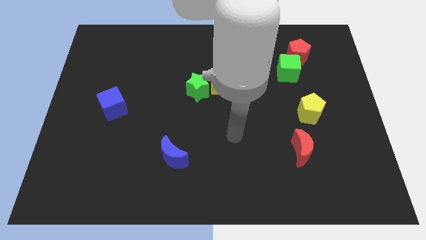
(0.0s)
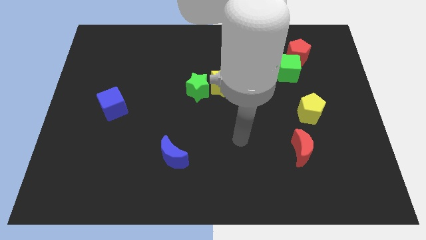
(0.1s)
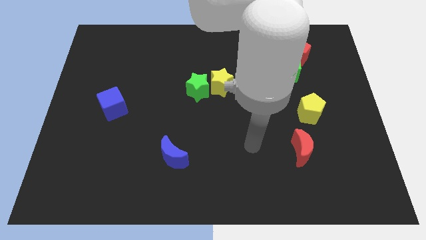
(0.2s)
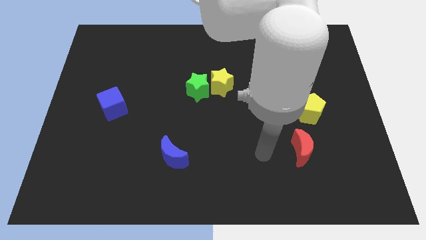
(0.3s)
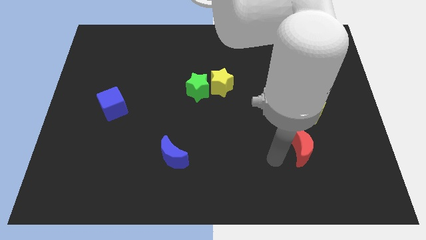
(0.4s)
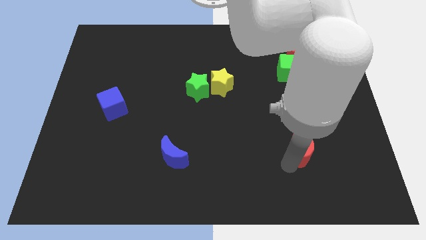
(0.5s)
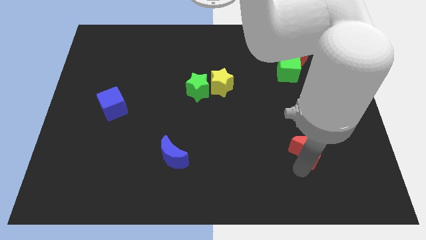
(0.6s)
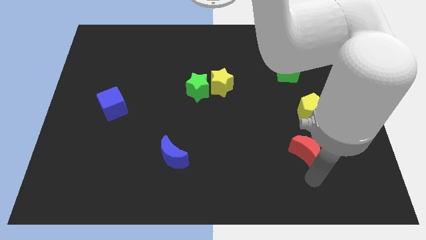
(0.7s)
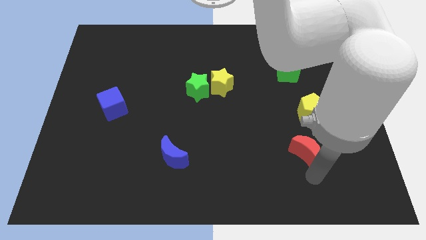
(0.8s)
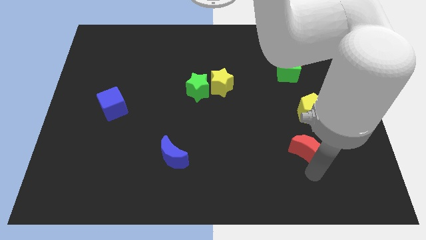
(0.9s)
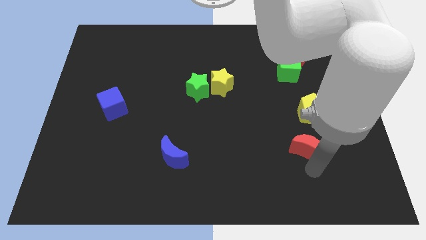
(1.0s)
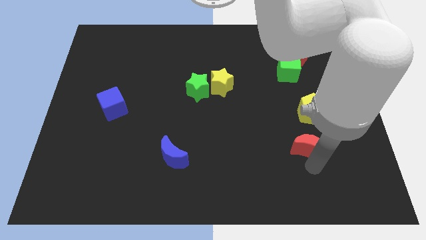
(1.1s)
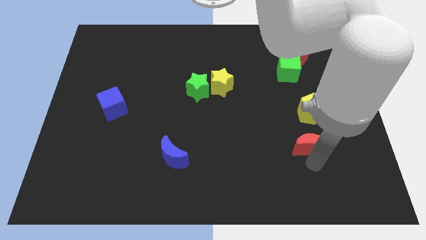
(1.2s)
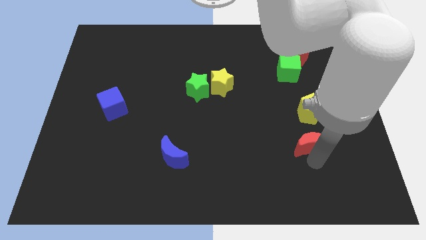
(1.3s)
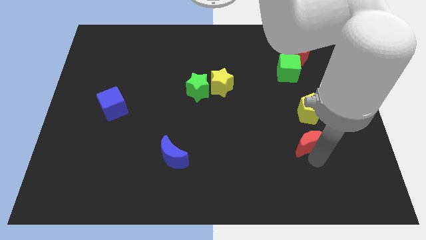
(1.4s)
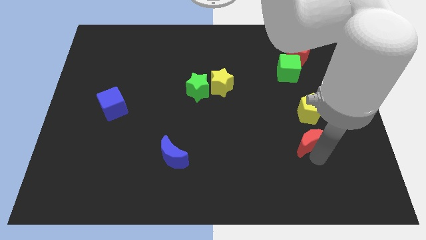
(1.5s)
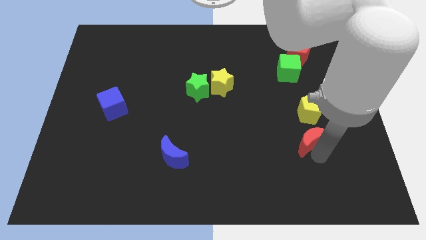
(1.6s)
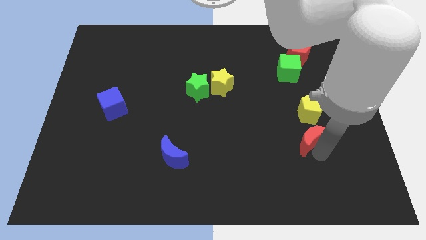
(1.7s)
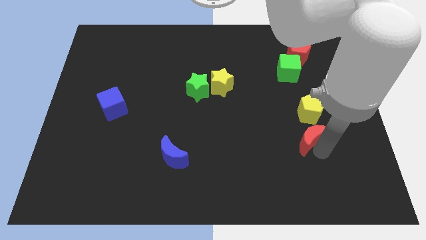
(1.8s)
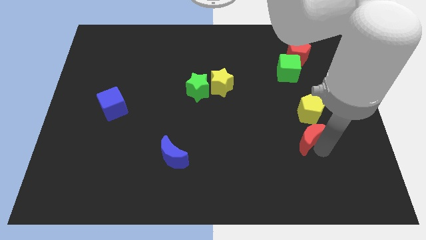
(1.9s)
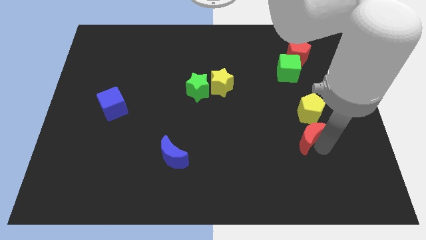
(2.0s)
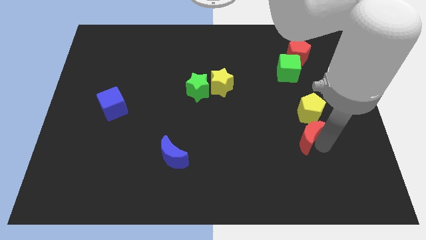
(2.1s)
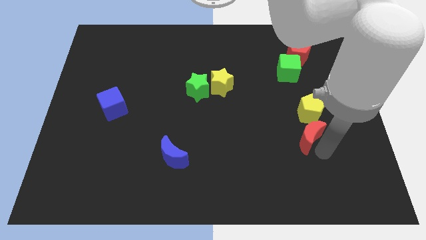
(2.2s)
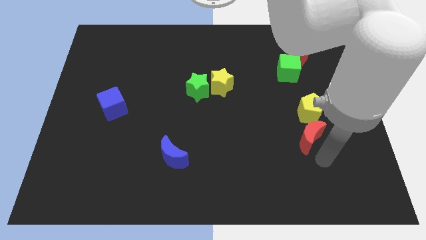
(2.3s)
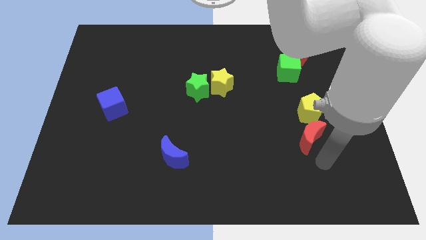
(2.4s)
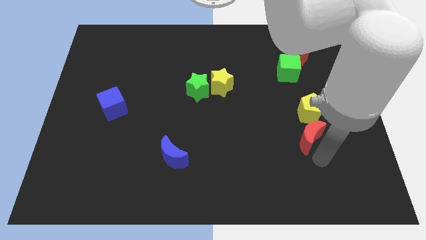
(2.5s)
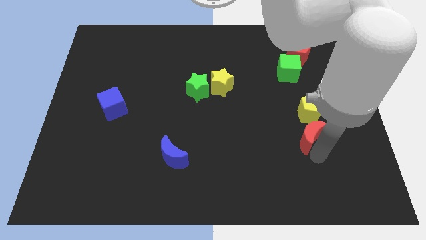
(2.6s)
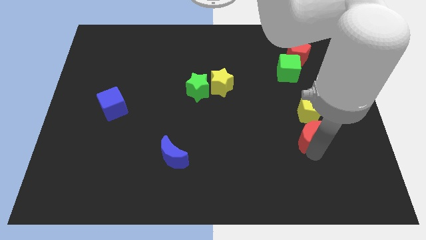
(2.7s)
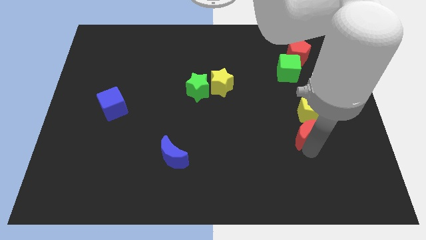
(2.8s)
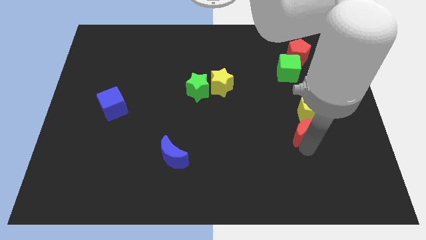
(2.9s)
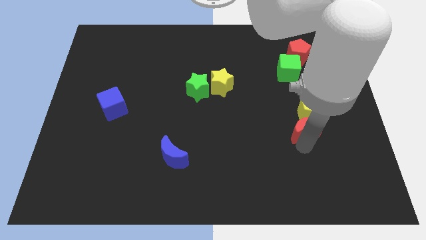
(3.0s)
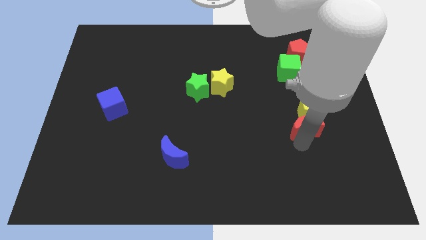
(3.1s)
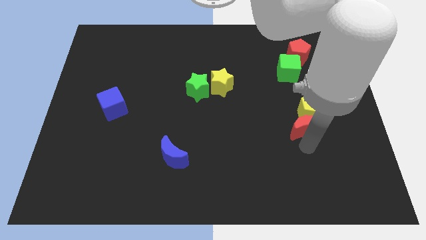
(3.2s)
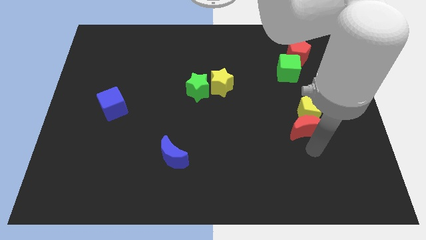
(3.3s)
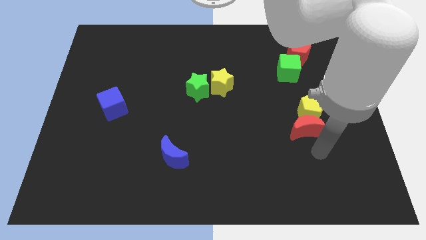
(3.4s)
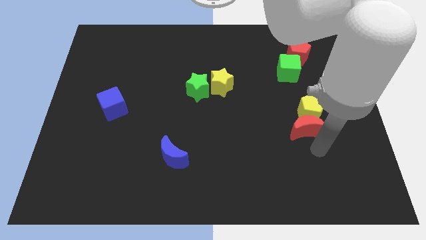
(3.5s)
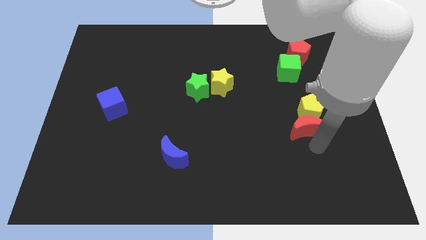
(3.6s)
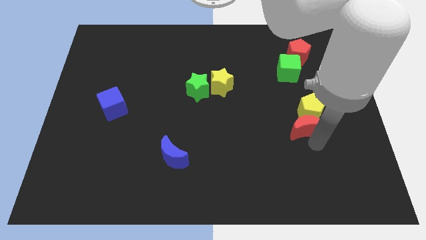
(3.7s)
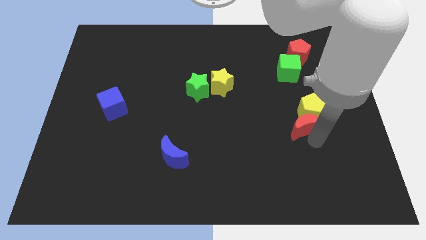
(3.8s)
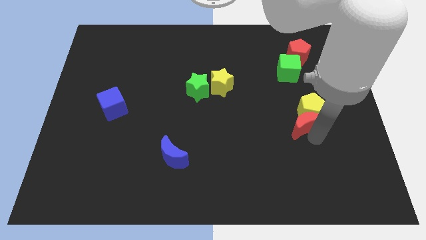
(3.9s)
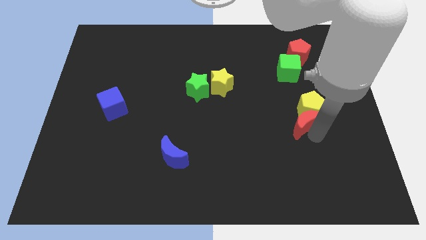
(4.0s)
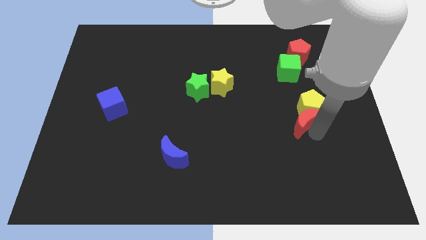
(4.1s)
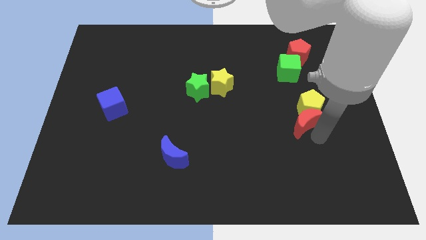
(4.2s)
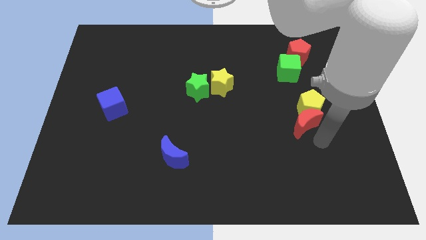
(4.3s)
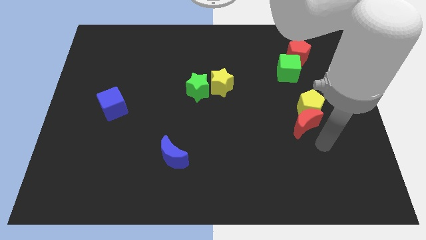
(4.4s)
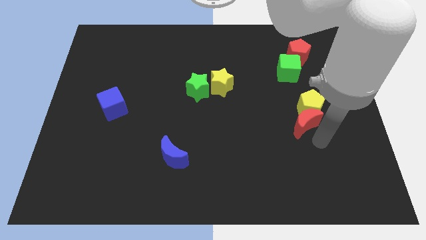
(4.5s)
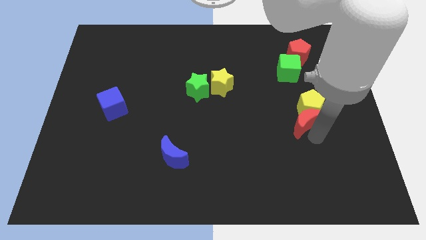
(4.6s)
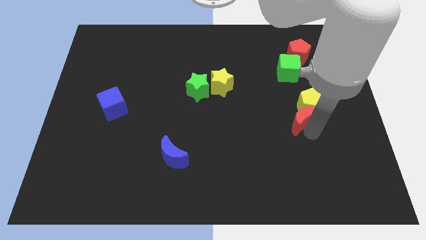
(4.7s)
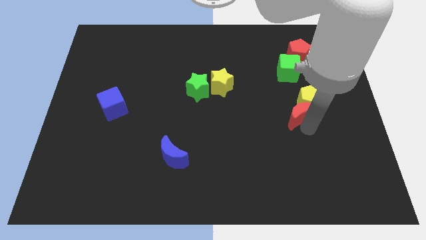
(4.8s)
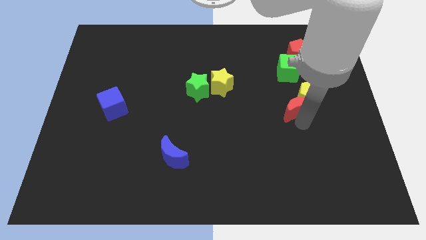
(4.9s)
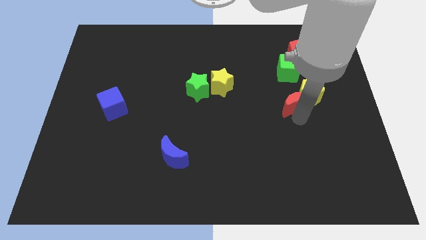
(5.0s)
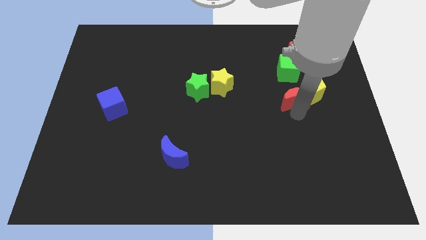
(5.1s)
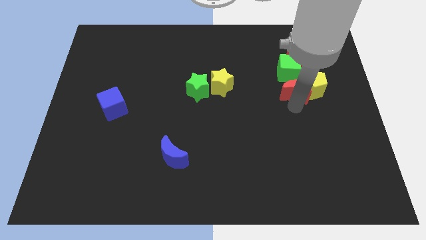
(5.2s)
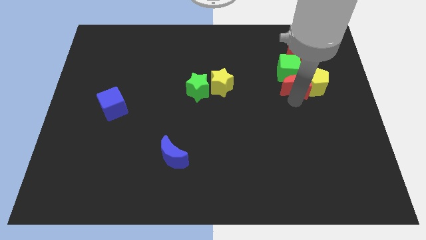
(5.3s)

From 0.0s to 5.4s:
put the red moon to the green cube

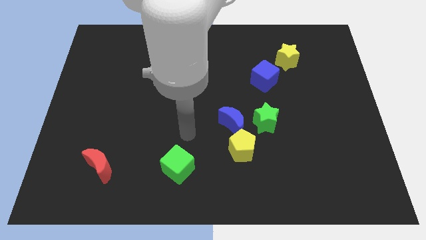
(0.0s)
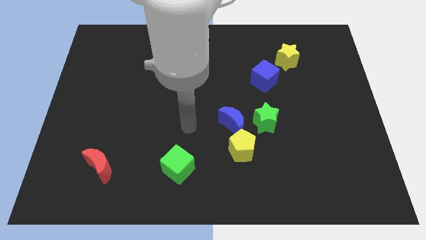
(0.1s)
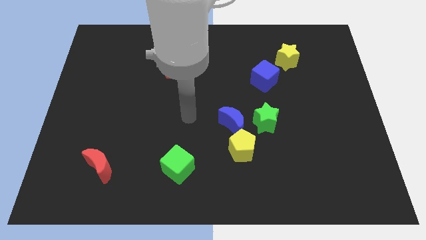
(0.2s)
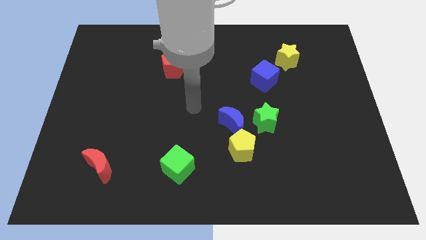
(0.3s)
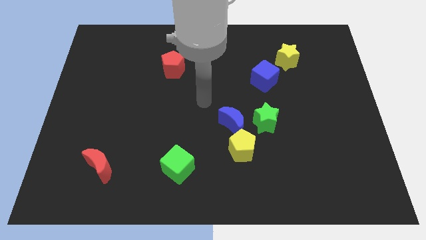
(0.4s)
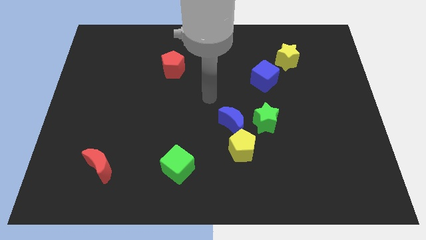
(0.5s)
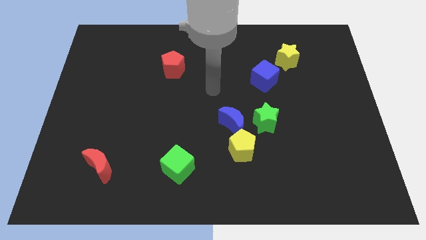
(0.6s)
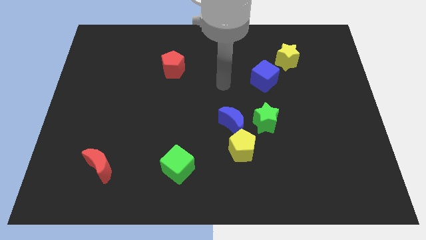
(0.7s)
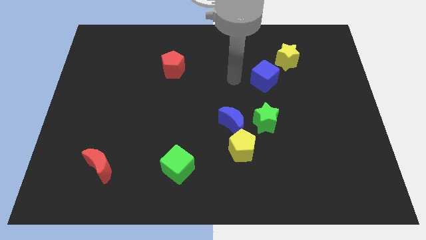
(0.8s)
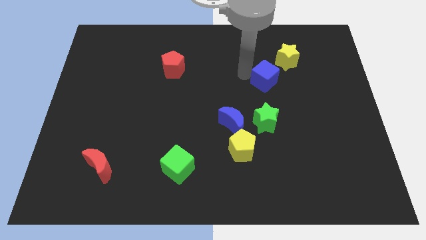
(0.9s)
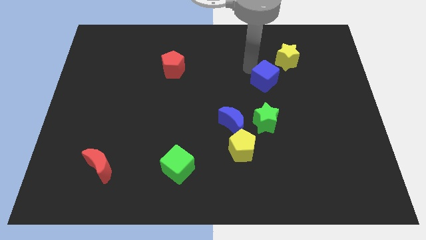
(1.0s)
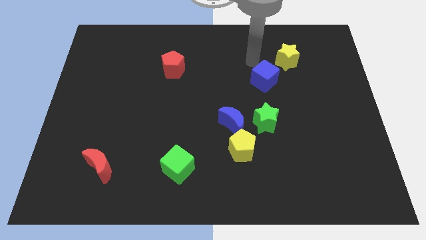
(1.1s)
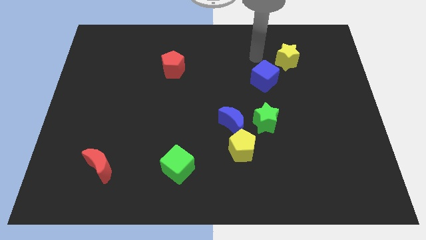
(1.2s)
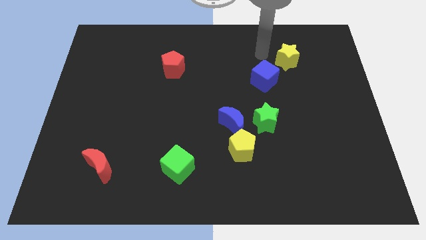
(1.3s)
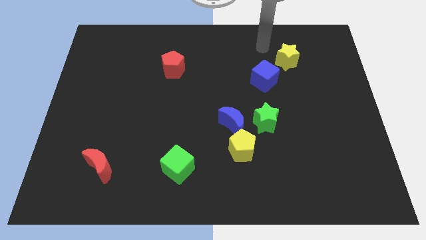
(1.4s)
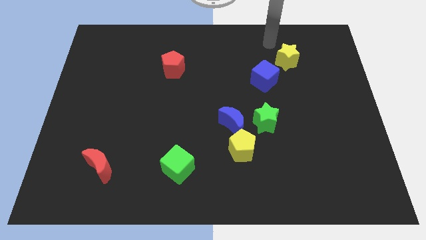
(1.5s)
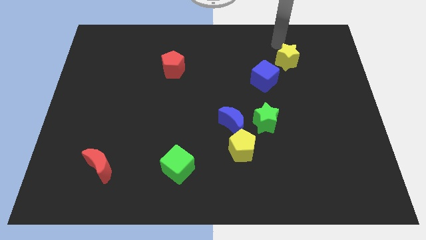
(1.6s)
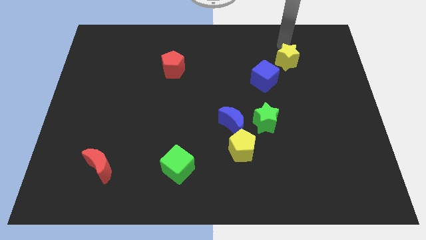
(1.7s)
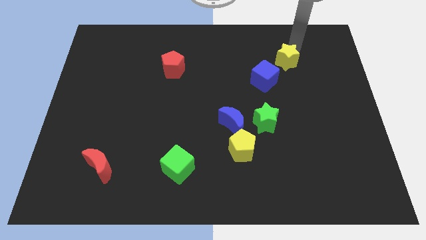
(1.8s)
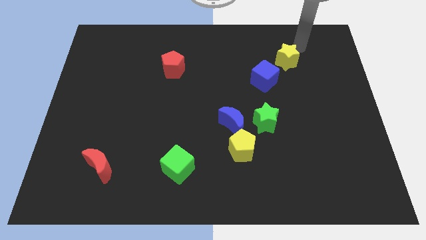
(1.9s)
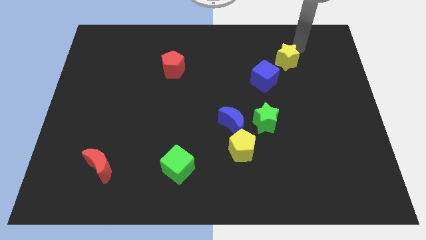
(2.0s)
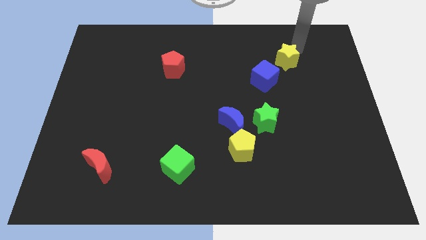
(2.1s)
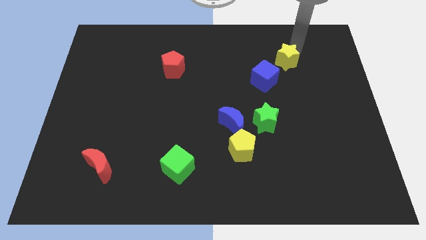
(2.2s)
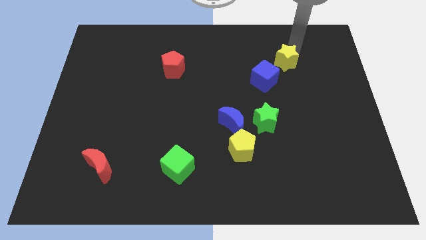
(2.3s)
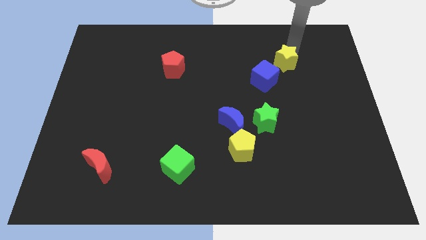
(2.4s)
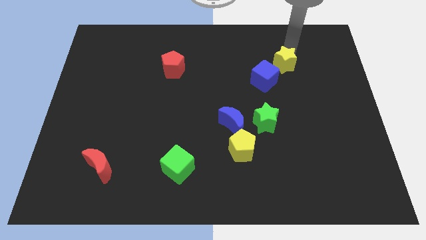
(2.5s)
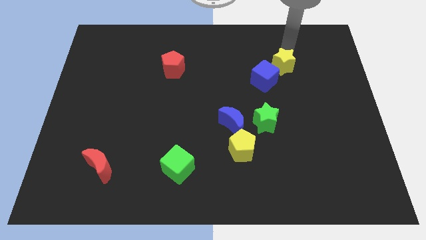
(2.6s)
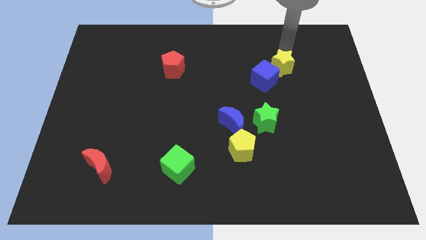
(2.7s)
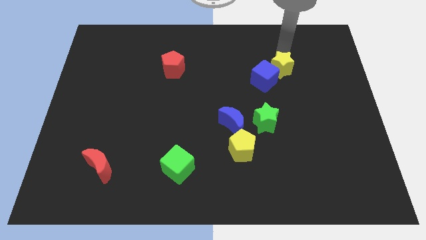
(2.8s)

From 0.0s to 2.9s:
slide the yellow star next to the blue cube
